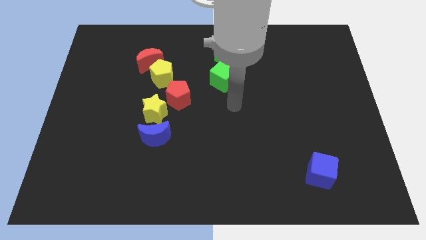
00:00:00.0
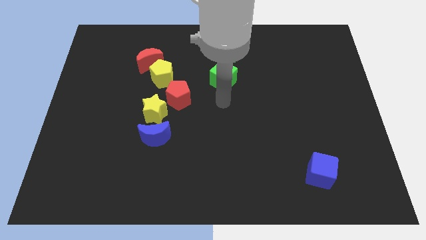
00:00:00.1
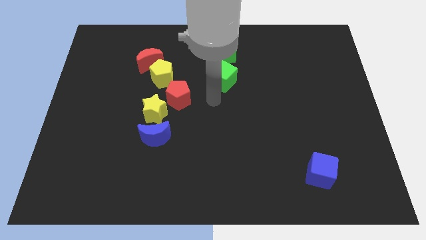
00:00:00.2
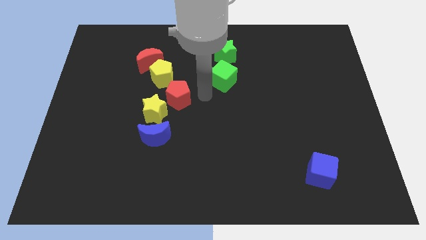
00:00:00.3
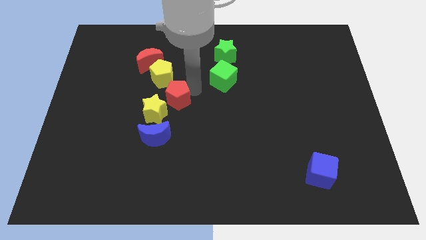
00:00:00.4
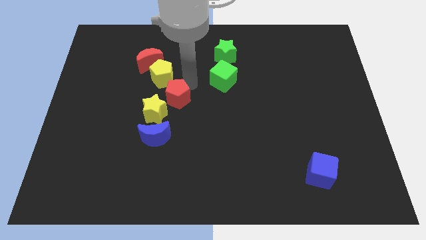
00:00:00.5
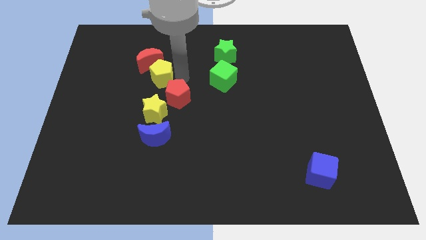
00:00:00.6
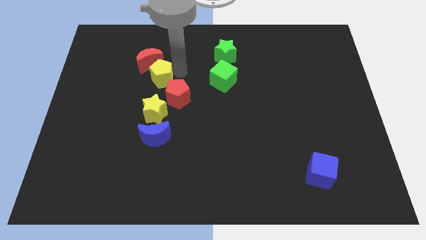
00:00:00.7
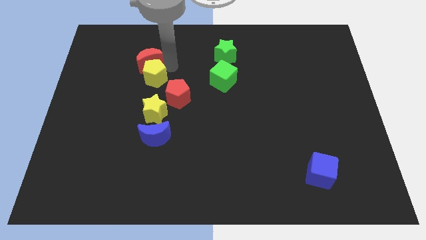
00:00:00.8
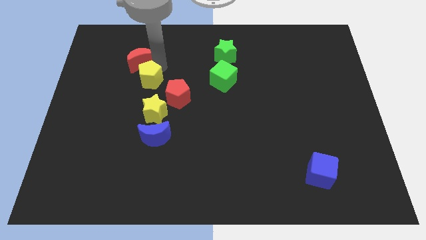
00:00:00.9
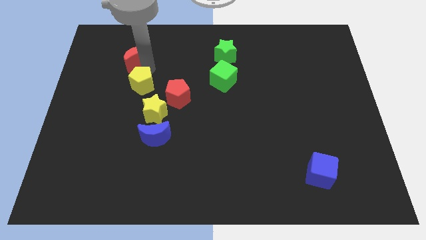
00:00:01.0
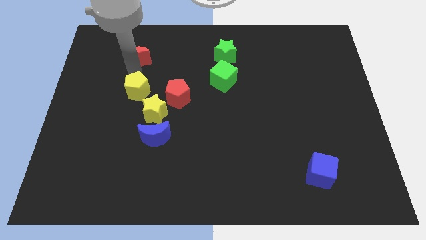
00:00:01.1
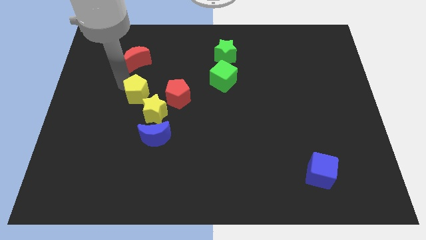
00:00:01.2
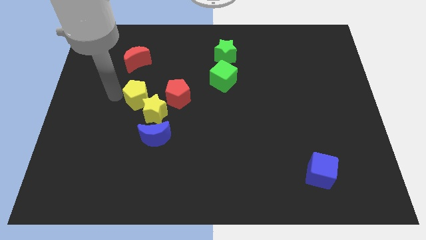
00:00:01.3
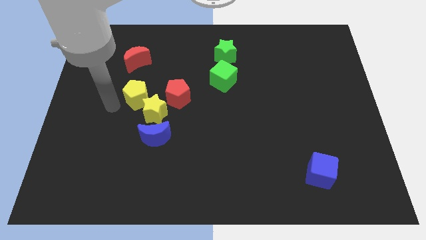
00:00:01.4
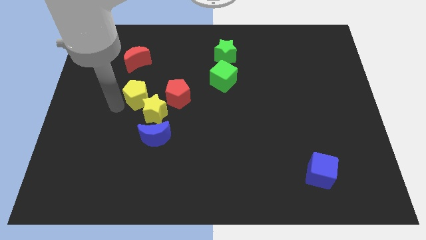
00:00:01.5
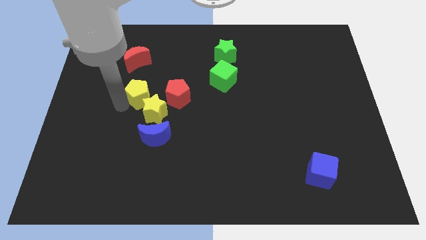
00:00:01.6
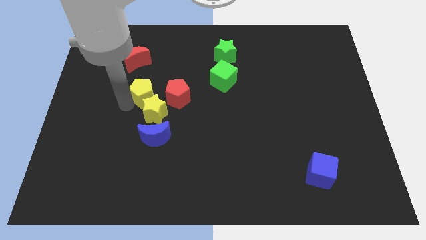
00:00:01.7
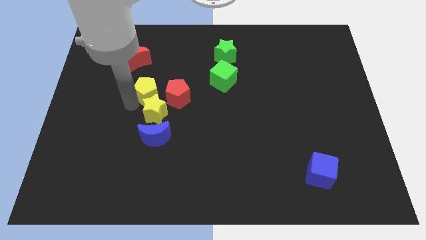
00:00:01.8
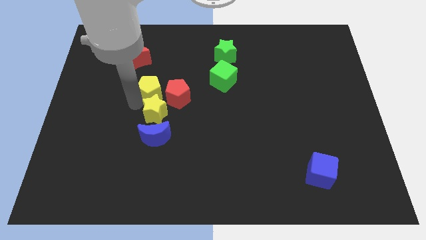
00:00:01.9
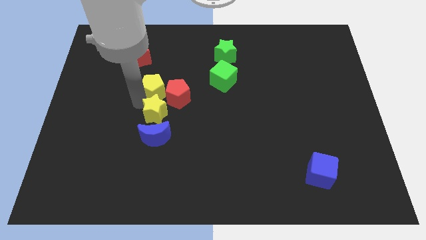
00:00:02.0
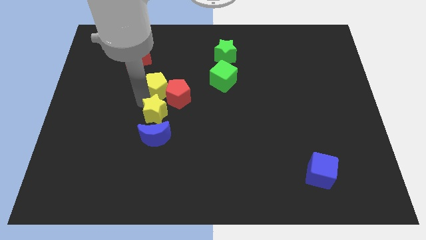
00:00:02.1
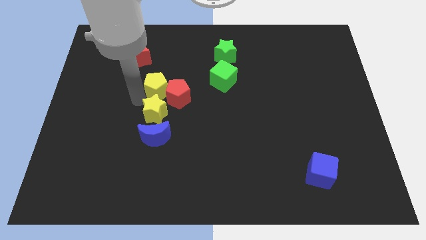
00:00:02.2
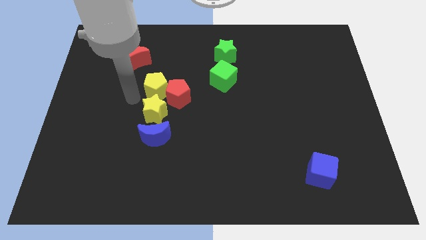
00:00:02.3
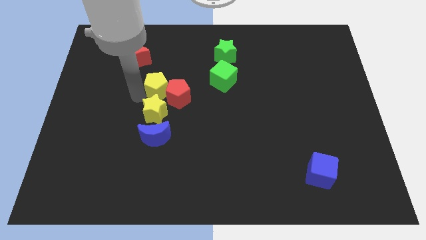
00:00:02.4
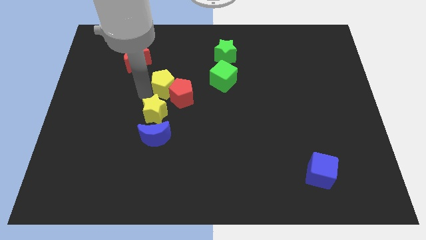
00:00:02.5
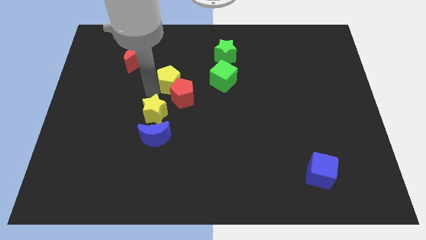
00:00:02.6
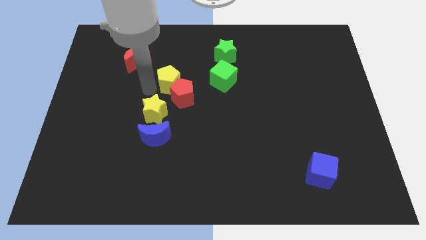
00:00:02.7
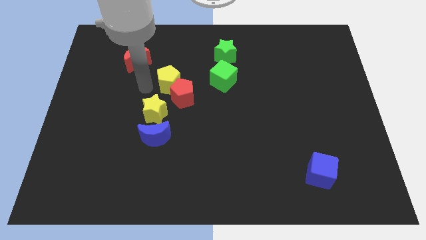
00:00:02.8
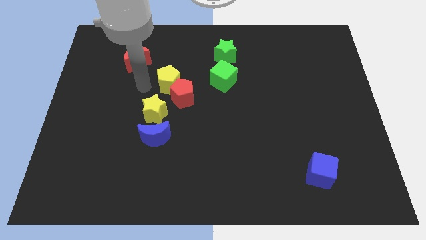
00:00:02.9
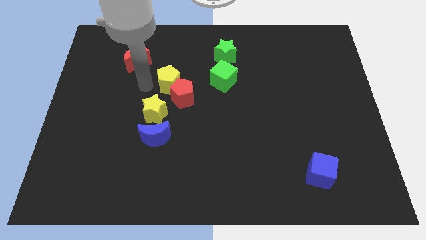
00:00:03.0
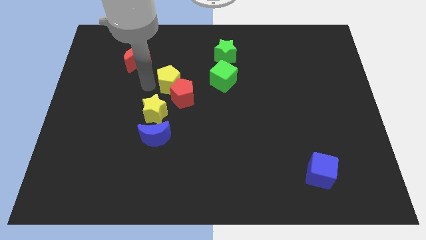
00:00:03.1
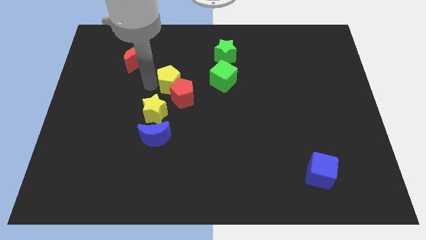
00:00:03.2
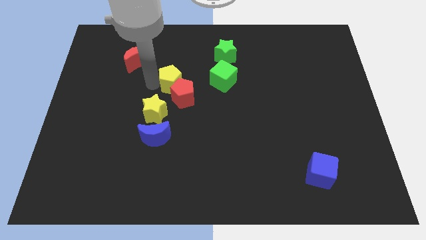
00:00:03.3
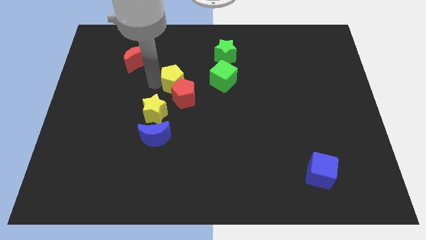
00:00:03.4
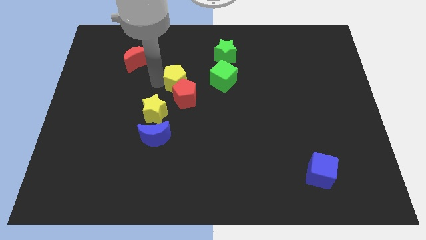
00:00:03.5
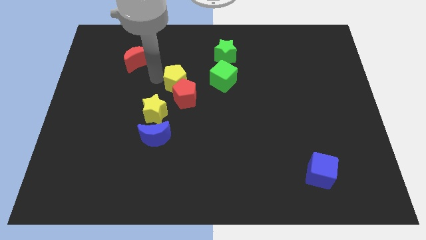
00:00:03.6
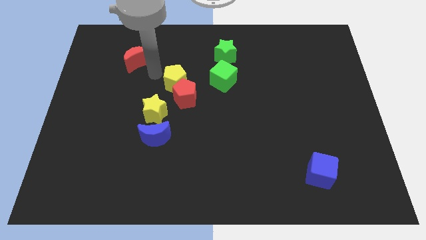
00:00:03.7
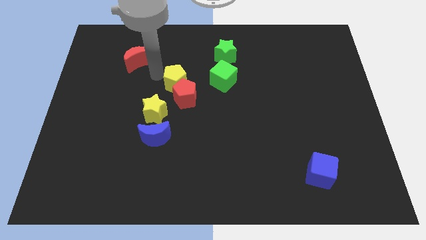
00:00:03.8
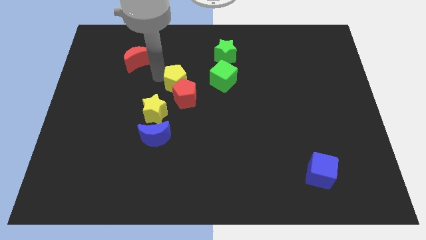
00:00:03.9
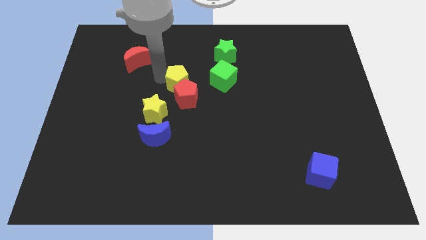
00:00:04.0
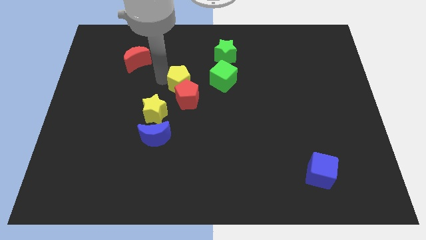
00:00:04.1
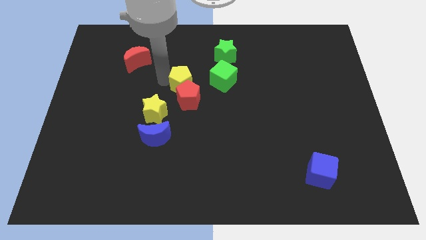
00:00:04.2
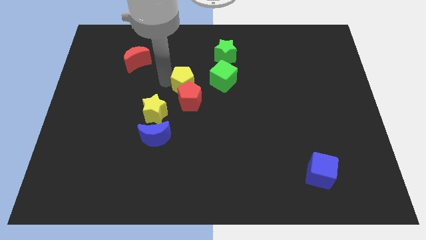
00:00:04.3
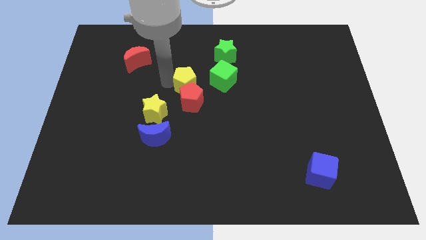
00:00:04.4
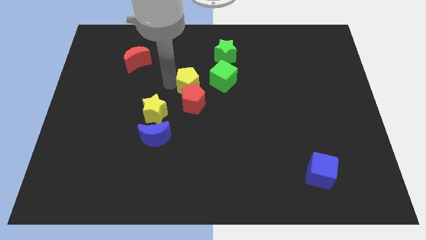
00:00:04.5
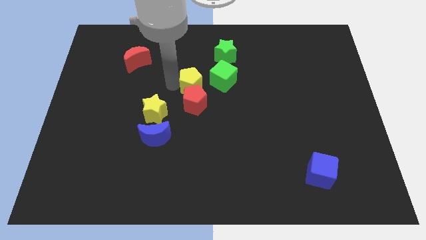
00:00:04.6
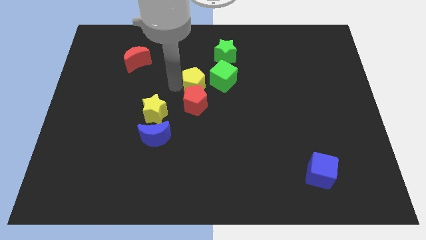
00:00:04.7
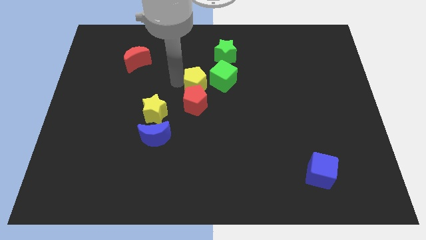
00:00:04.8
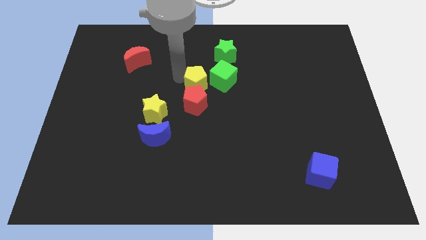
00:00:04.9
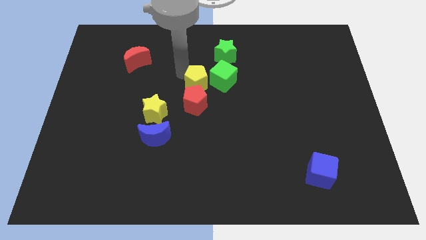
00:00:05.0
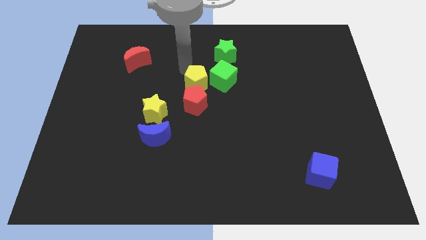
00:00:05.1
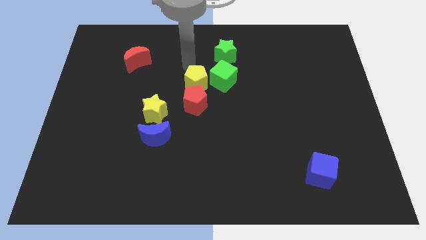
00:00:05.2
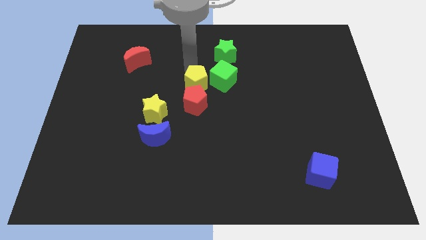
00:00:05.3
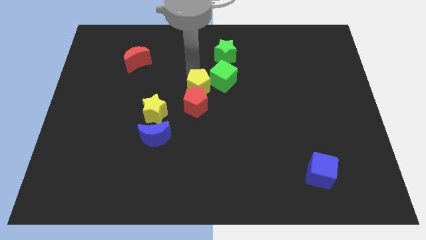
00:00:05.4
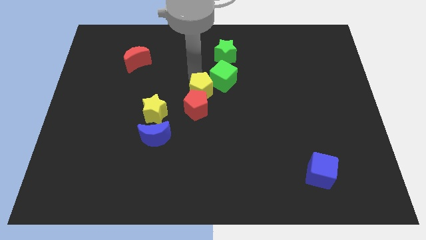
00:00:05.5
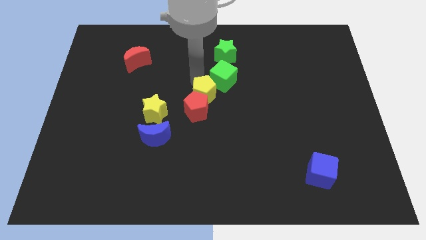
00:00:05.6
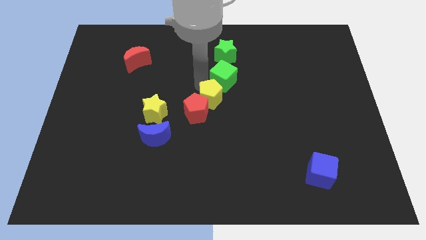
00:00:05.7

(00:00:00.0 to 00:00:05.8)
push the yellow pentagon to the right of the yellow star

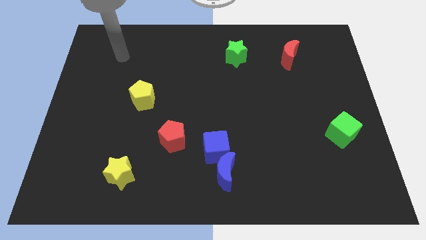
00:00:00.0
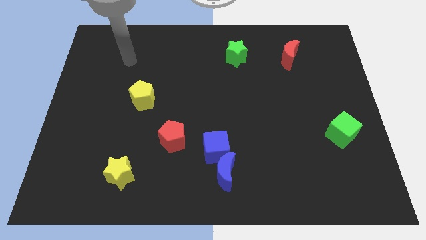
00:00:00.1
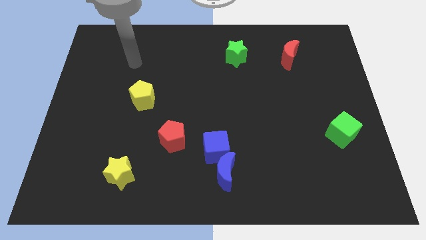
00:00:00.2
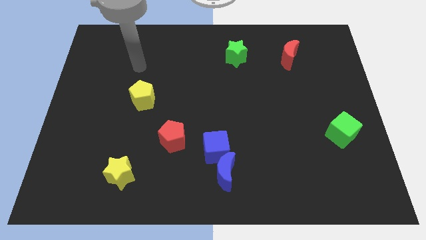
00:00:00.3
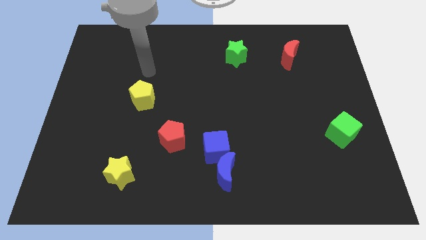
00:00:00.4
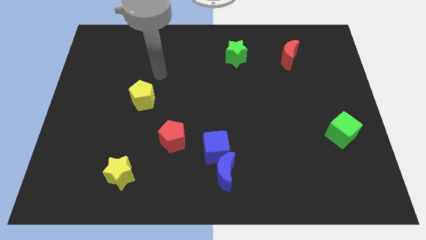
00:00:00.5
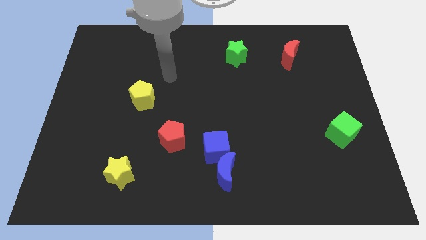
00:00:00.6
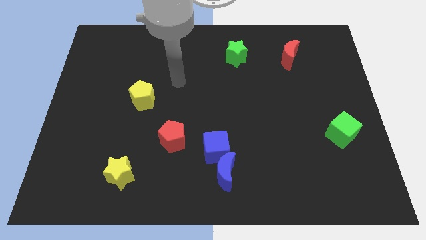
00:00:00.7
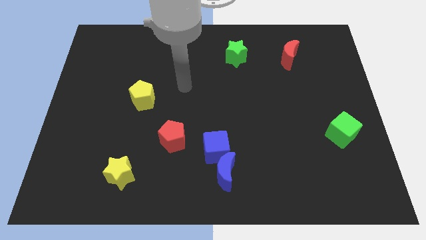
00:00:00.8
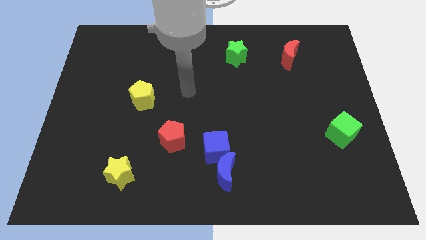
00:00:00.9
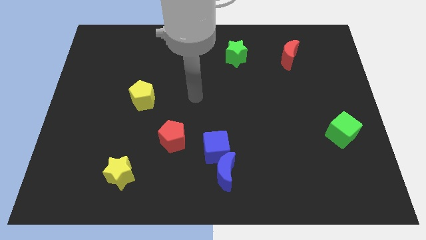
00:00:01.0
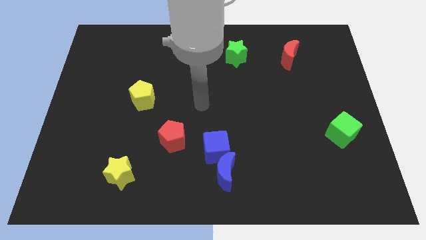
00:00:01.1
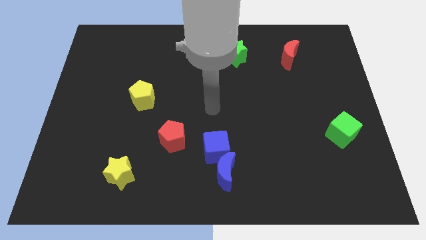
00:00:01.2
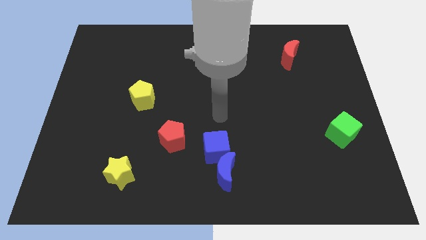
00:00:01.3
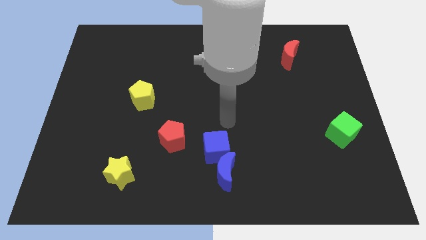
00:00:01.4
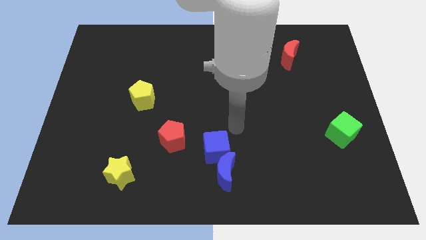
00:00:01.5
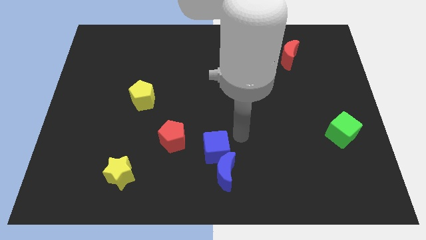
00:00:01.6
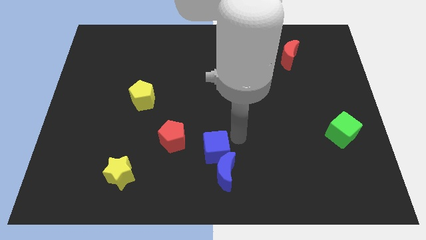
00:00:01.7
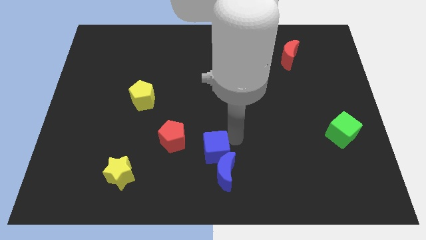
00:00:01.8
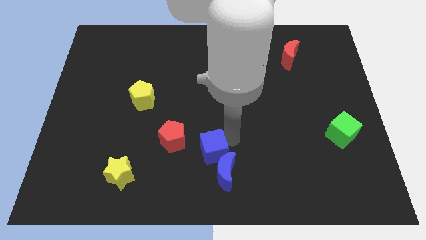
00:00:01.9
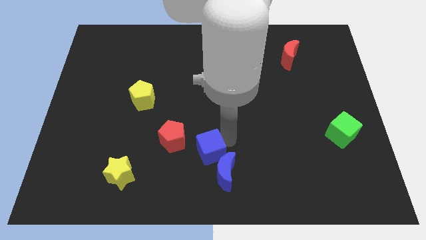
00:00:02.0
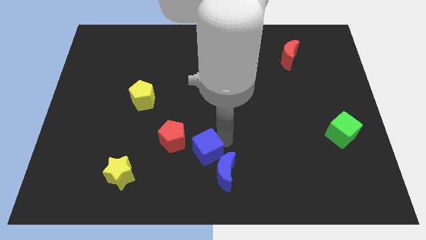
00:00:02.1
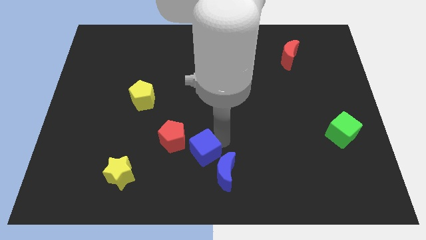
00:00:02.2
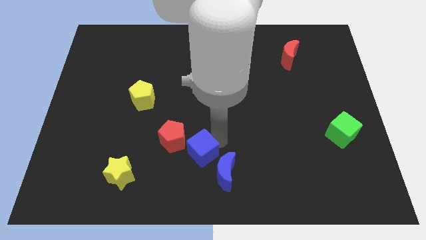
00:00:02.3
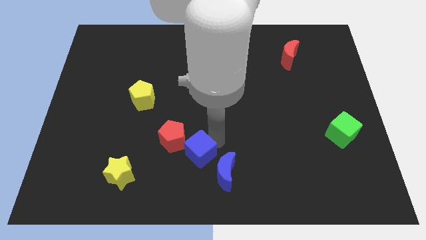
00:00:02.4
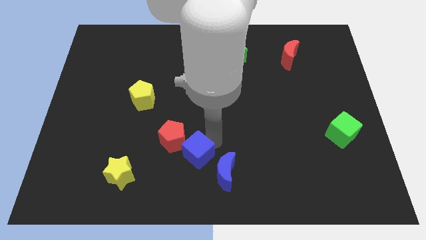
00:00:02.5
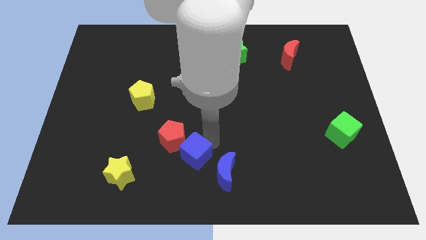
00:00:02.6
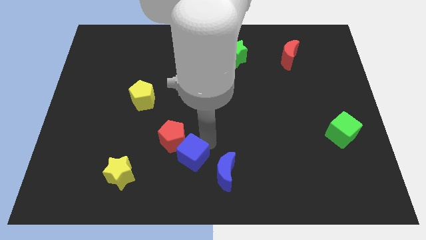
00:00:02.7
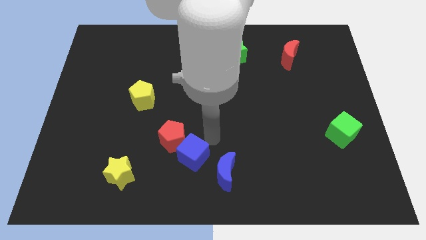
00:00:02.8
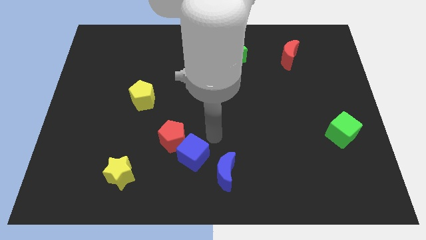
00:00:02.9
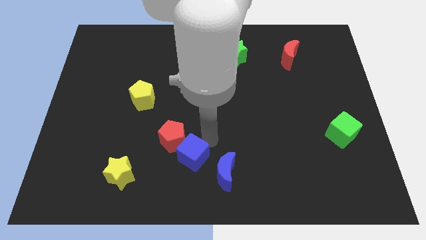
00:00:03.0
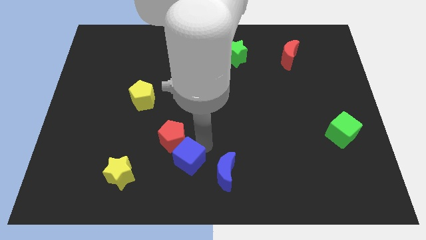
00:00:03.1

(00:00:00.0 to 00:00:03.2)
put the blue cube to the right side of the yellow star
